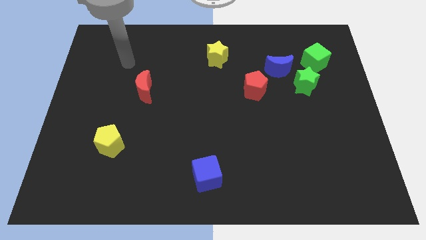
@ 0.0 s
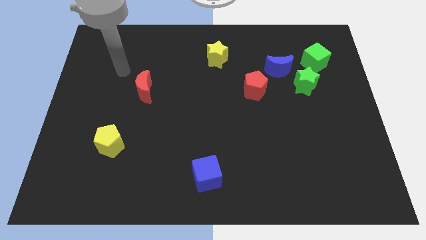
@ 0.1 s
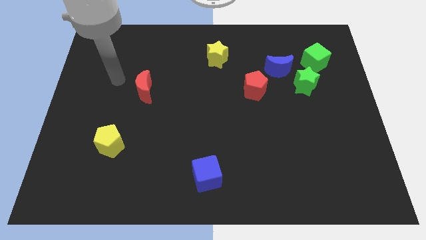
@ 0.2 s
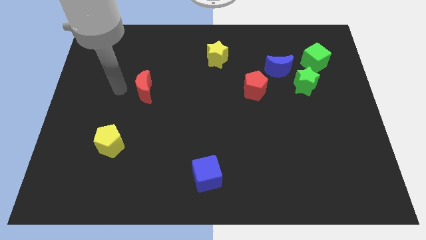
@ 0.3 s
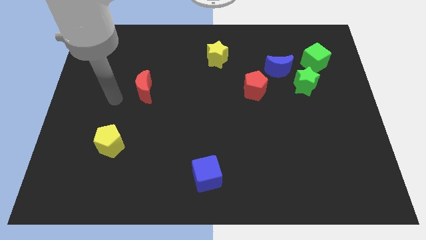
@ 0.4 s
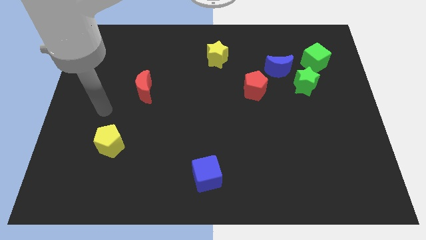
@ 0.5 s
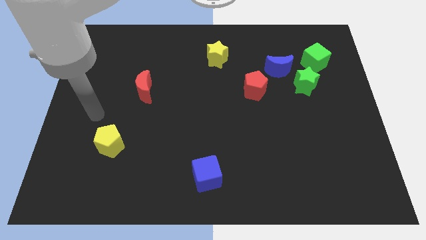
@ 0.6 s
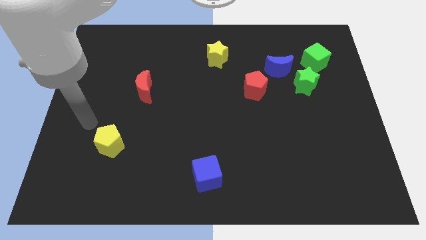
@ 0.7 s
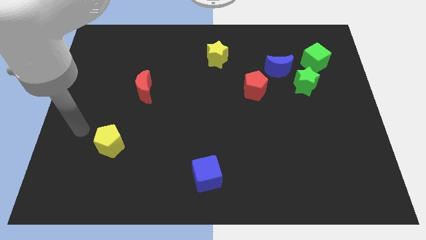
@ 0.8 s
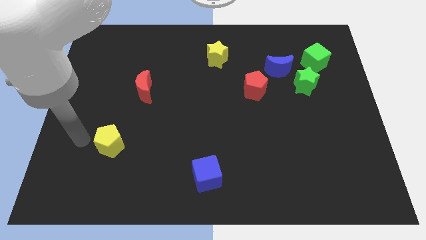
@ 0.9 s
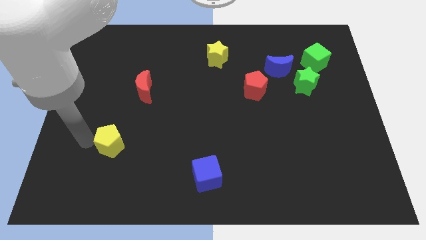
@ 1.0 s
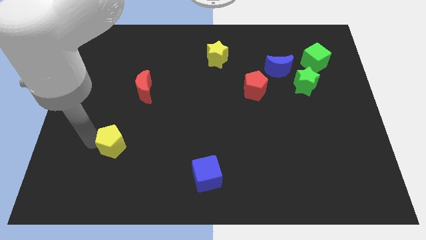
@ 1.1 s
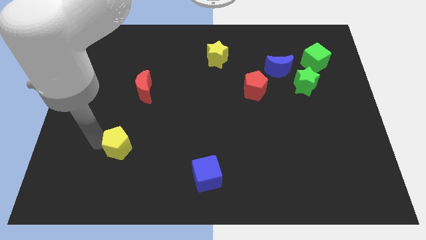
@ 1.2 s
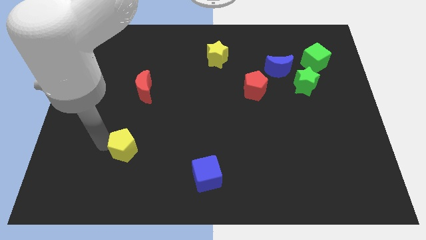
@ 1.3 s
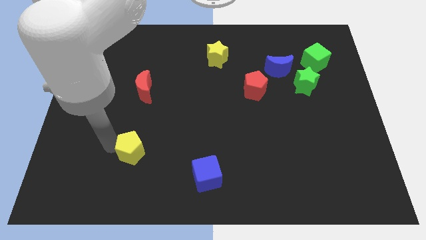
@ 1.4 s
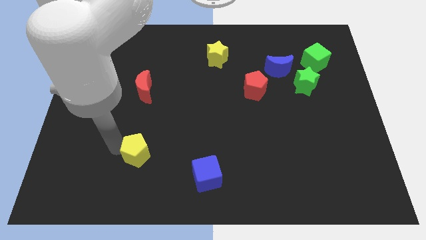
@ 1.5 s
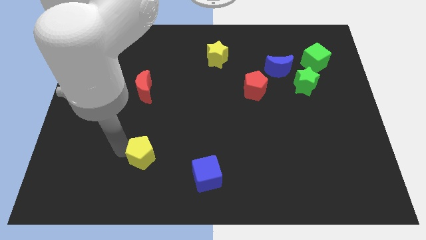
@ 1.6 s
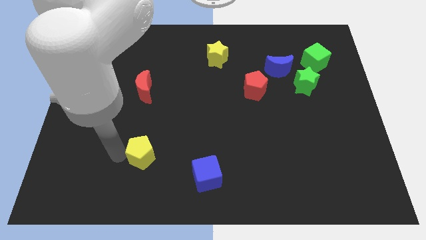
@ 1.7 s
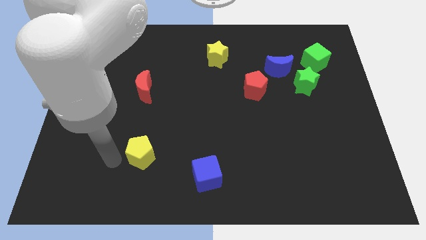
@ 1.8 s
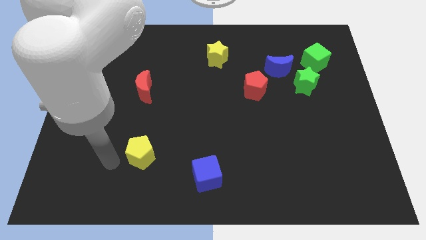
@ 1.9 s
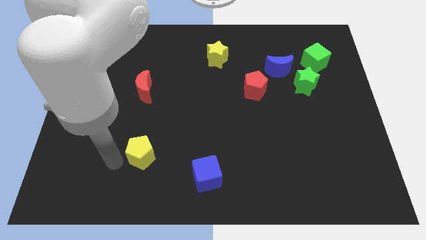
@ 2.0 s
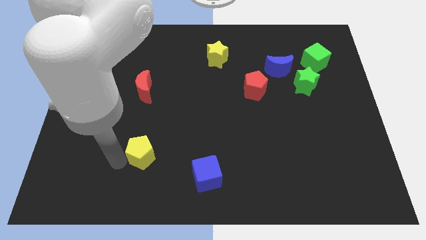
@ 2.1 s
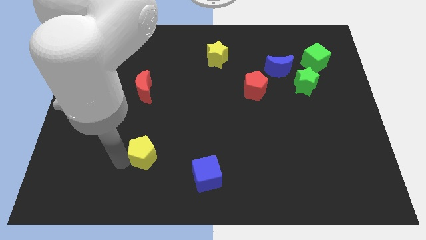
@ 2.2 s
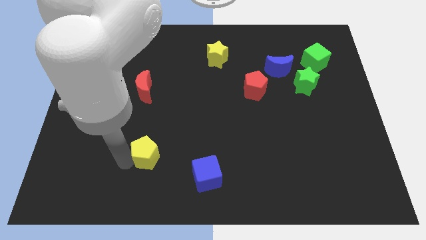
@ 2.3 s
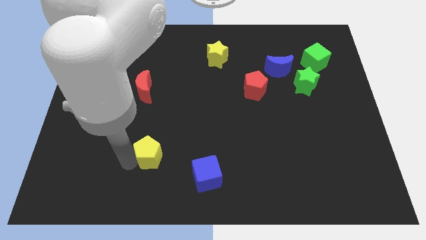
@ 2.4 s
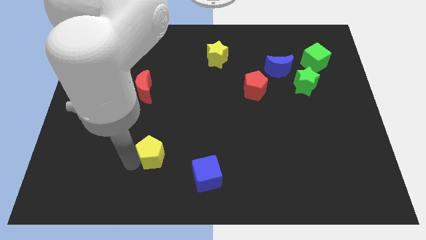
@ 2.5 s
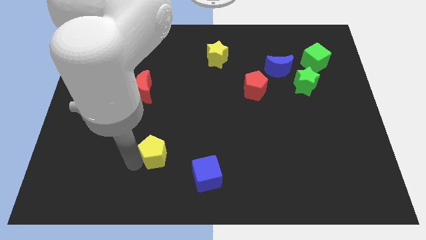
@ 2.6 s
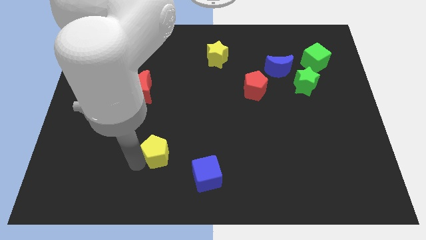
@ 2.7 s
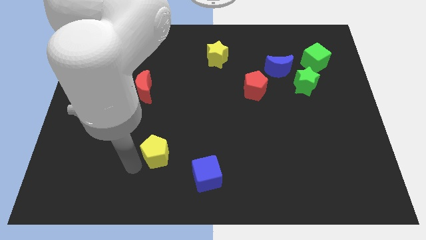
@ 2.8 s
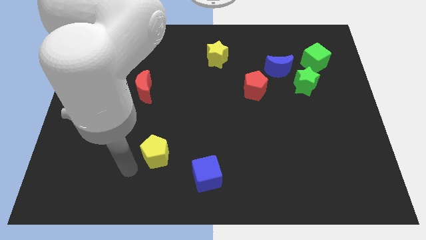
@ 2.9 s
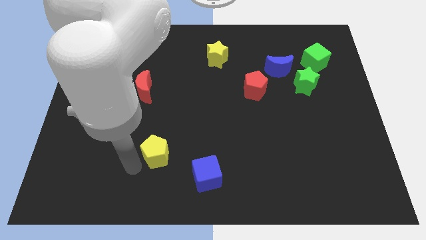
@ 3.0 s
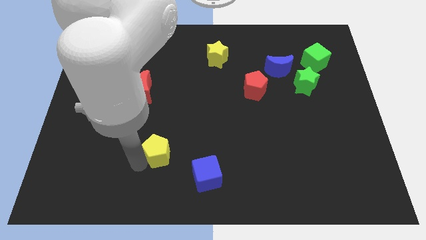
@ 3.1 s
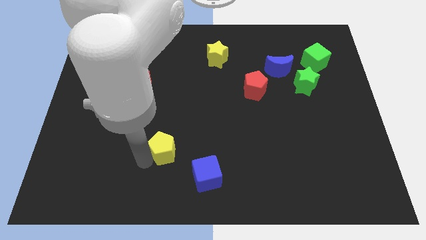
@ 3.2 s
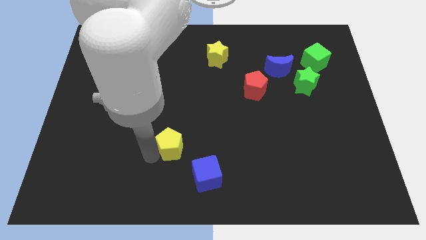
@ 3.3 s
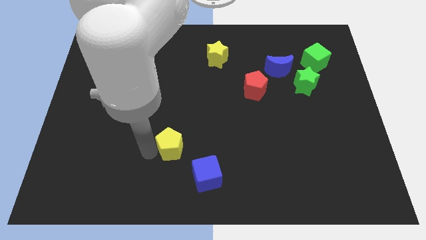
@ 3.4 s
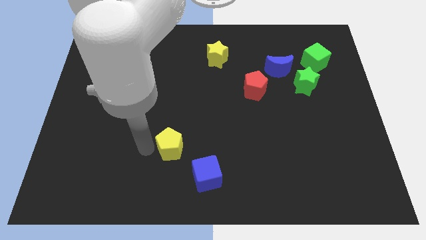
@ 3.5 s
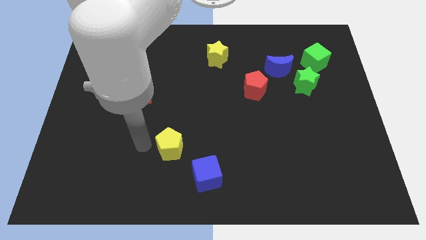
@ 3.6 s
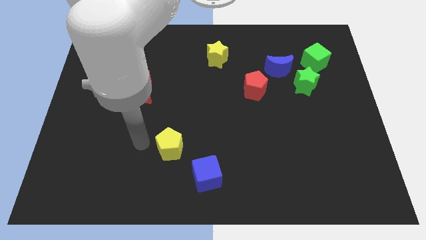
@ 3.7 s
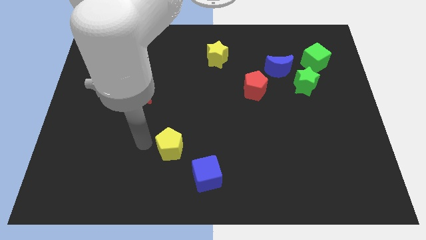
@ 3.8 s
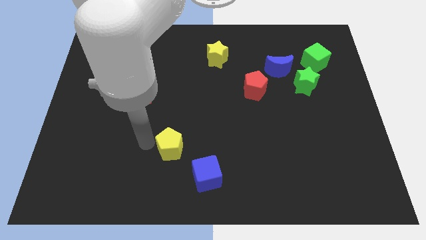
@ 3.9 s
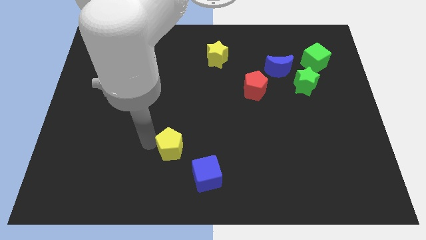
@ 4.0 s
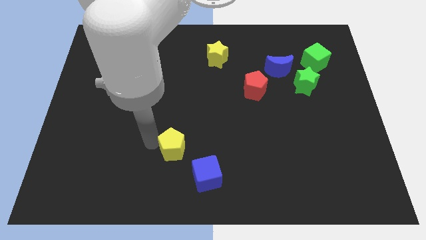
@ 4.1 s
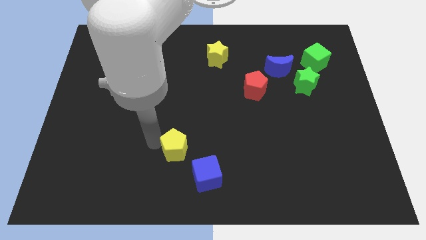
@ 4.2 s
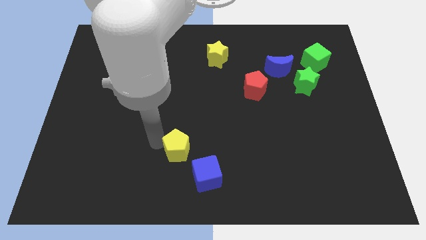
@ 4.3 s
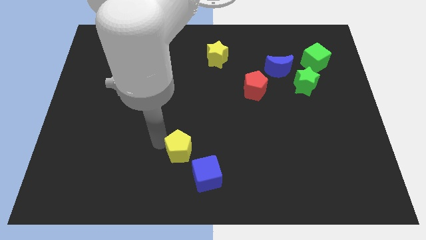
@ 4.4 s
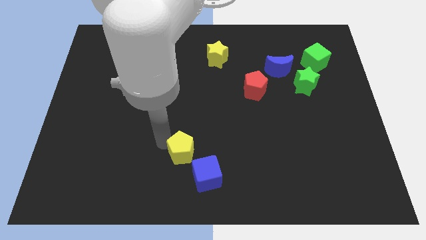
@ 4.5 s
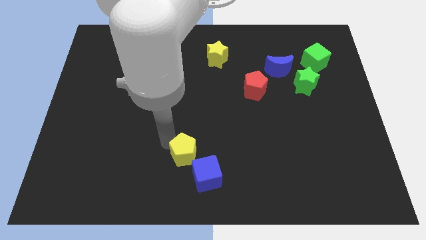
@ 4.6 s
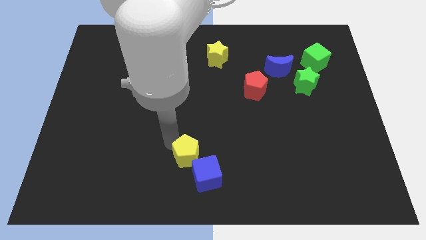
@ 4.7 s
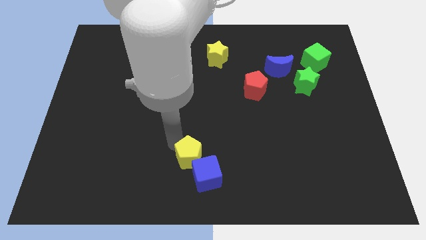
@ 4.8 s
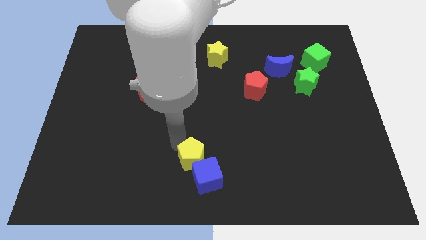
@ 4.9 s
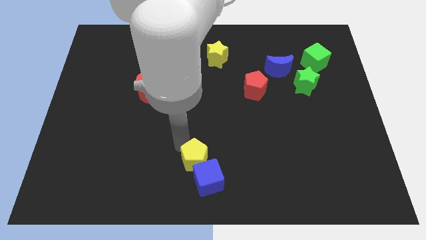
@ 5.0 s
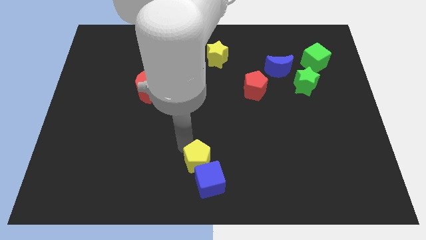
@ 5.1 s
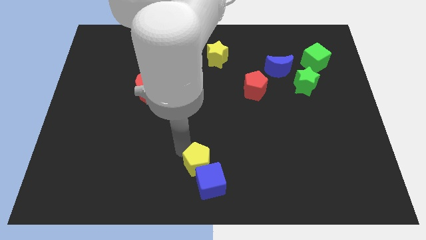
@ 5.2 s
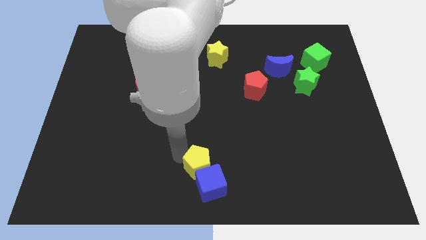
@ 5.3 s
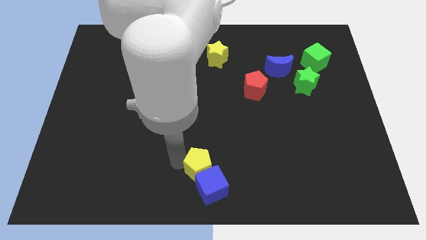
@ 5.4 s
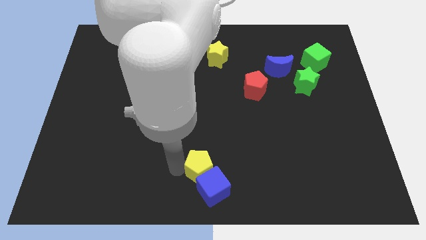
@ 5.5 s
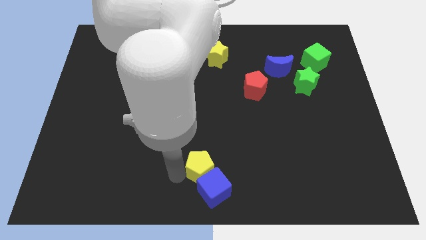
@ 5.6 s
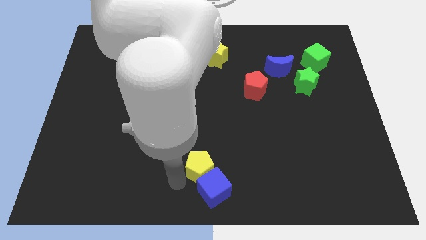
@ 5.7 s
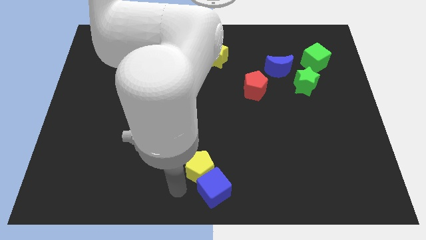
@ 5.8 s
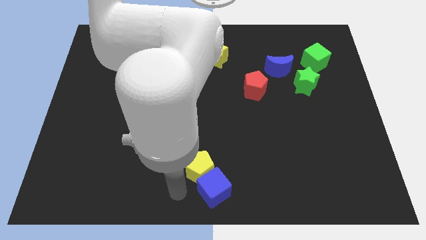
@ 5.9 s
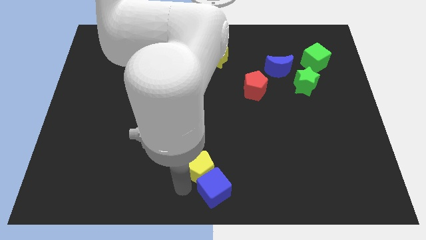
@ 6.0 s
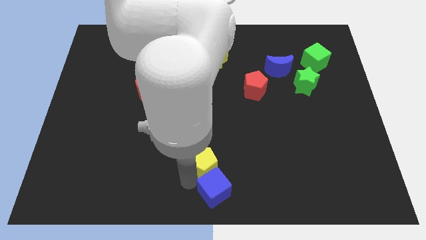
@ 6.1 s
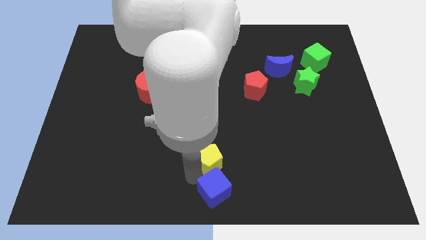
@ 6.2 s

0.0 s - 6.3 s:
slide the yellow pentagon right

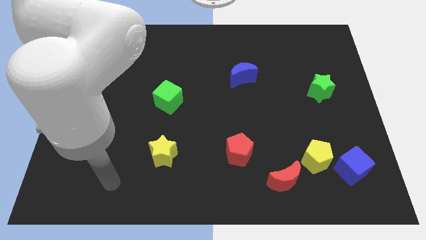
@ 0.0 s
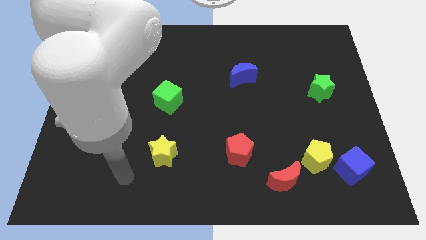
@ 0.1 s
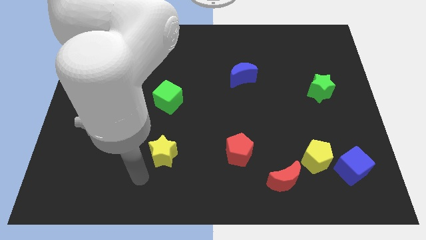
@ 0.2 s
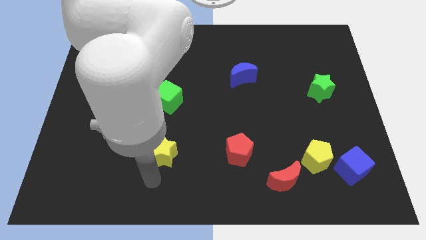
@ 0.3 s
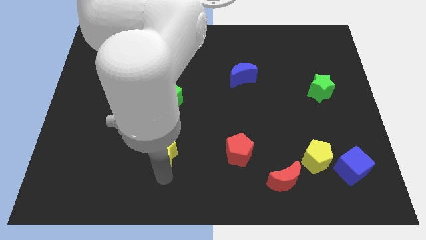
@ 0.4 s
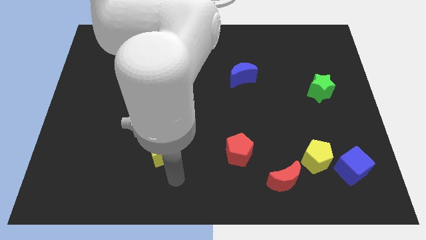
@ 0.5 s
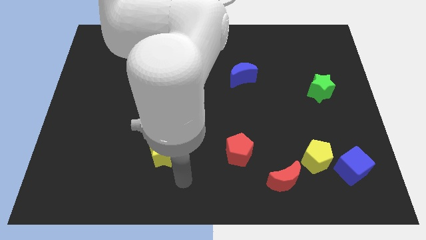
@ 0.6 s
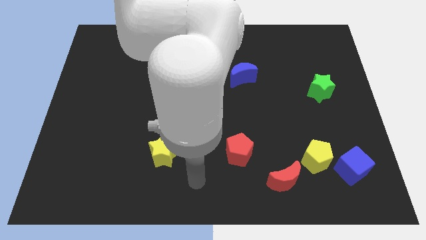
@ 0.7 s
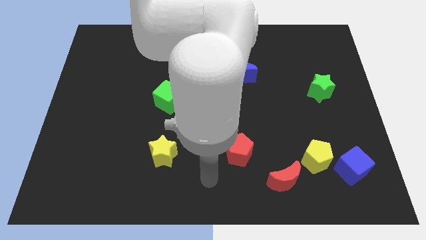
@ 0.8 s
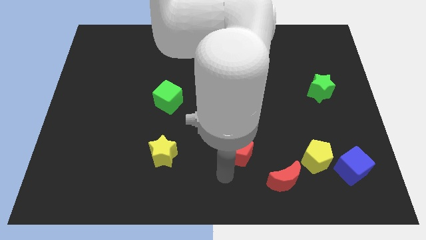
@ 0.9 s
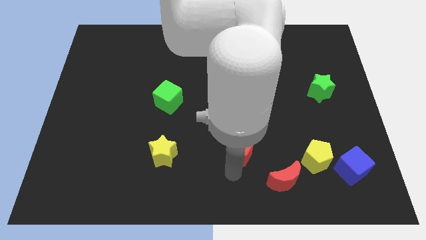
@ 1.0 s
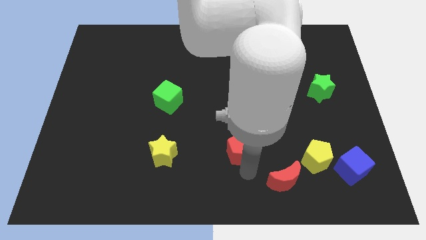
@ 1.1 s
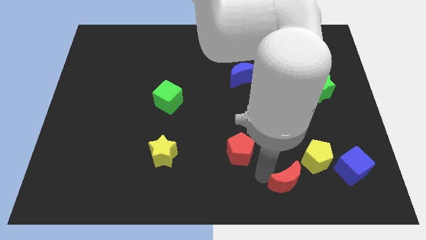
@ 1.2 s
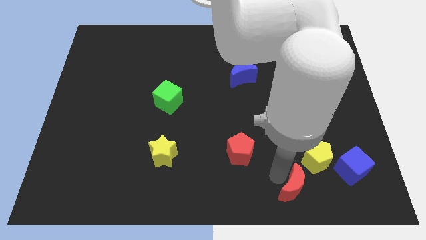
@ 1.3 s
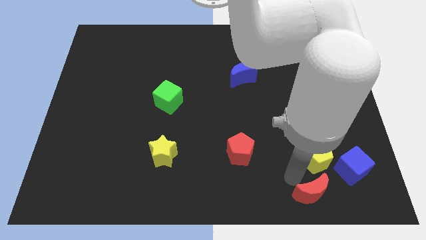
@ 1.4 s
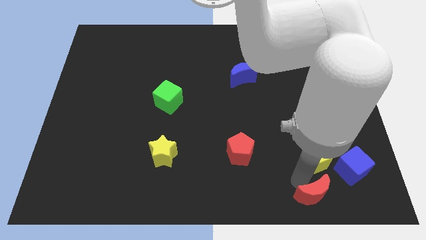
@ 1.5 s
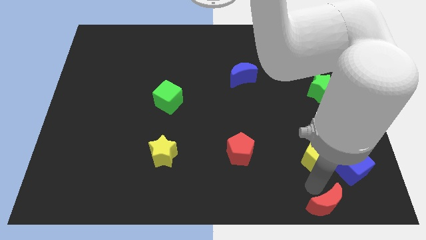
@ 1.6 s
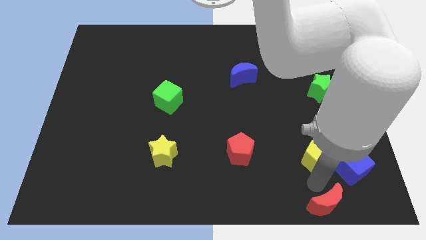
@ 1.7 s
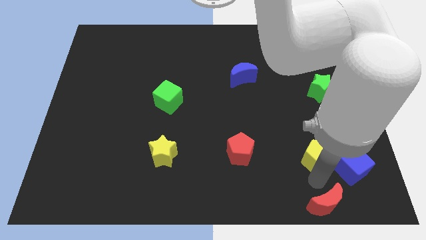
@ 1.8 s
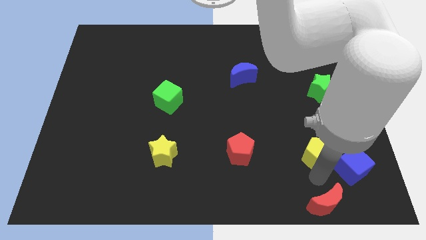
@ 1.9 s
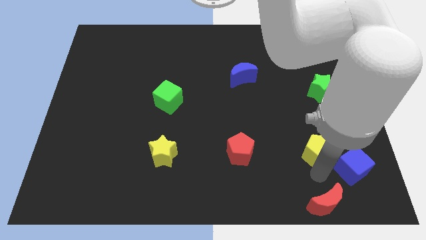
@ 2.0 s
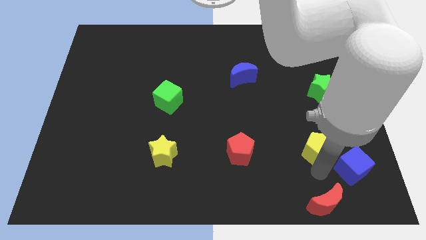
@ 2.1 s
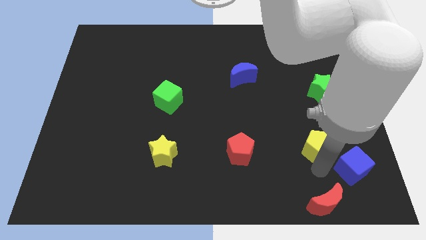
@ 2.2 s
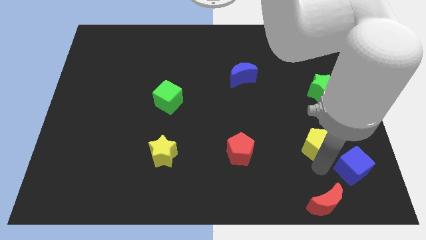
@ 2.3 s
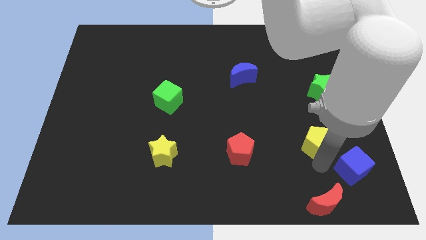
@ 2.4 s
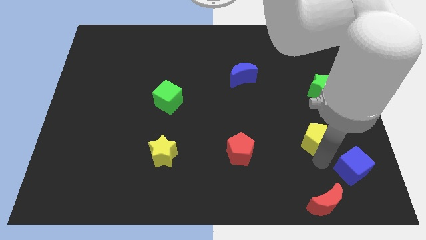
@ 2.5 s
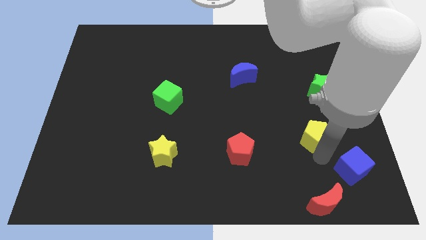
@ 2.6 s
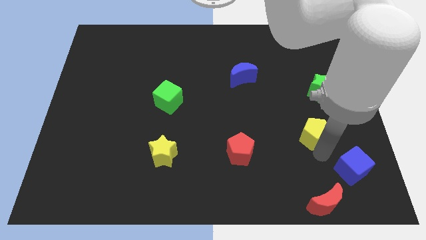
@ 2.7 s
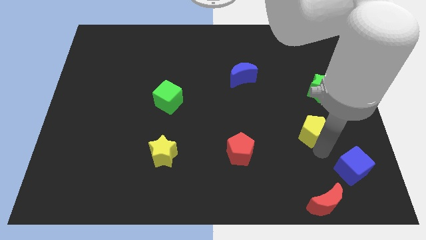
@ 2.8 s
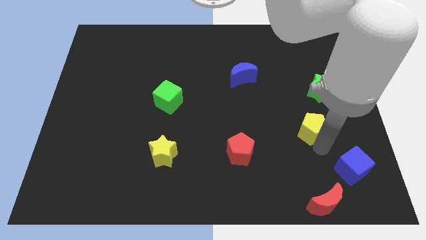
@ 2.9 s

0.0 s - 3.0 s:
push the yellow pentagon a bit upwards
